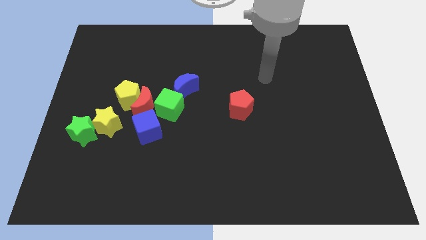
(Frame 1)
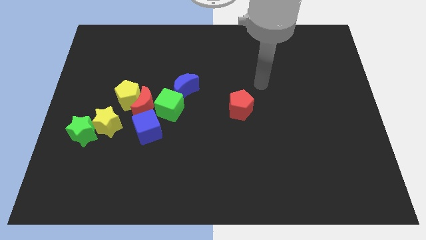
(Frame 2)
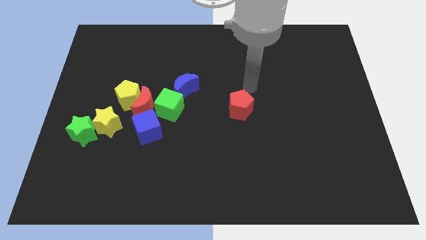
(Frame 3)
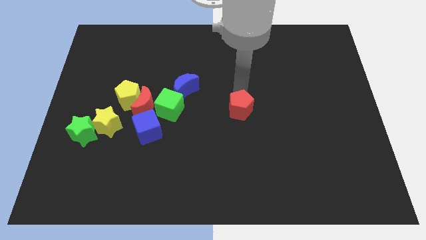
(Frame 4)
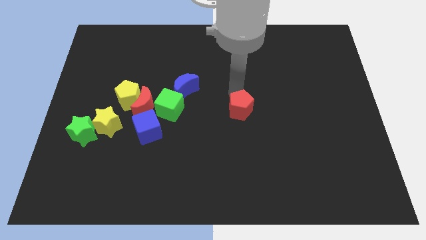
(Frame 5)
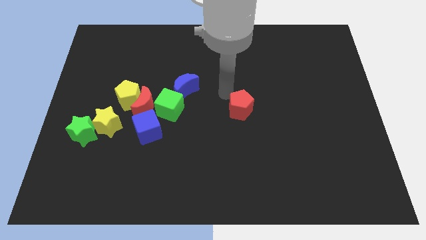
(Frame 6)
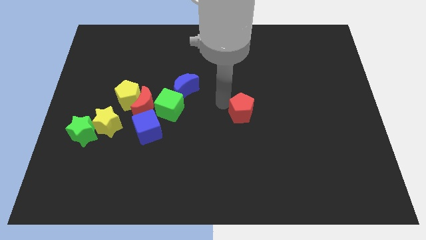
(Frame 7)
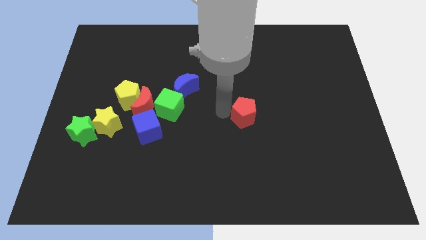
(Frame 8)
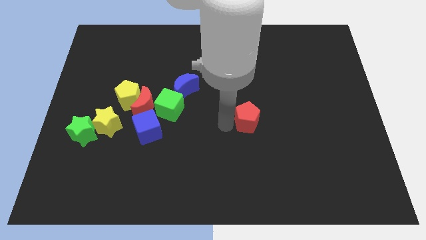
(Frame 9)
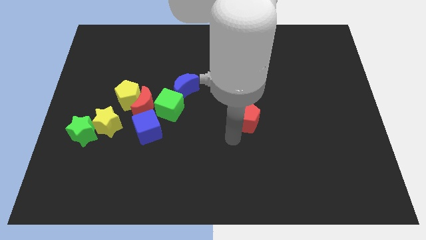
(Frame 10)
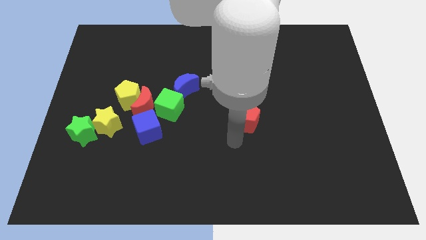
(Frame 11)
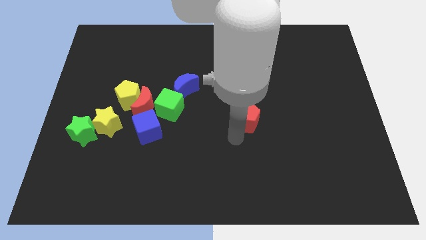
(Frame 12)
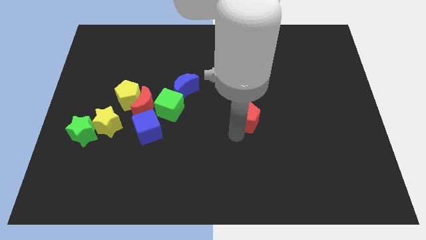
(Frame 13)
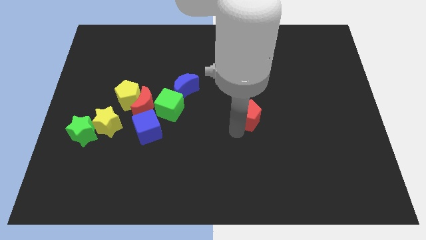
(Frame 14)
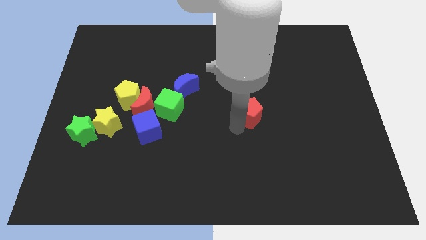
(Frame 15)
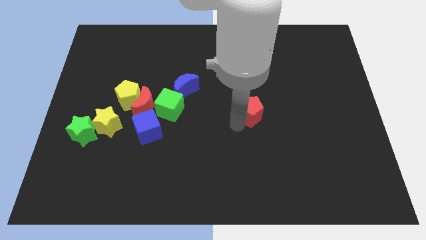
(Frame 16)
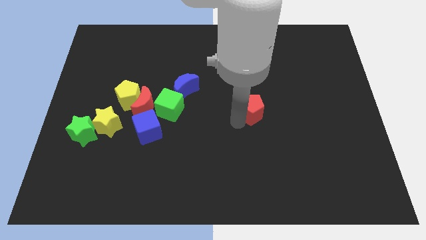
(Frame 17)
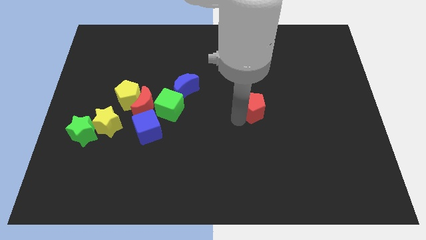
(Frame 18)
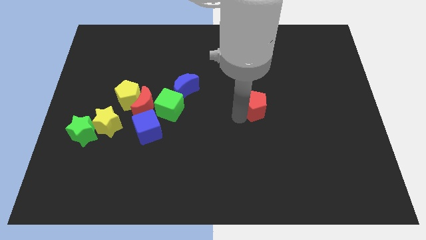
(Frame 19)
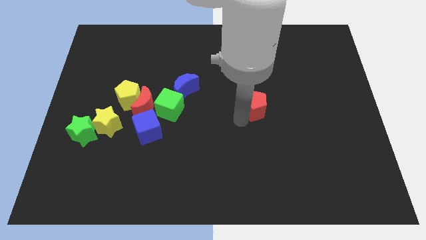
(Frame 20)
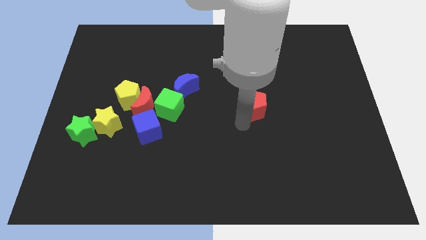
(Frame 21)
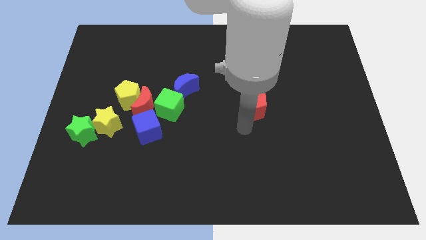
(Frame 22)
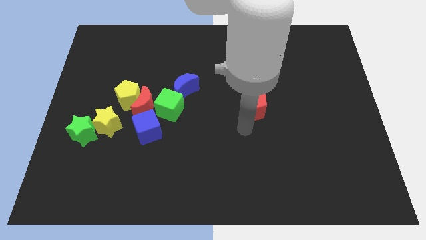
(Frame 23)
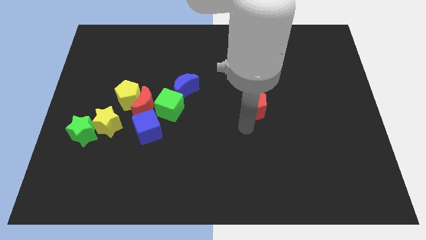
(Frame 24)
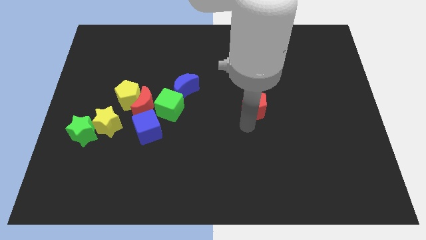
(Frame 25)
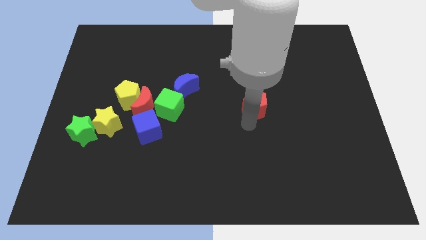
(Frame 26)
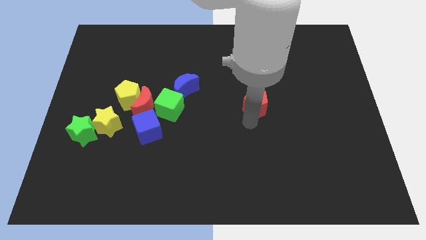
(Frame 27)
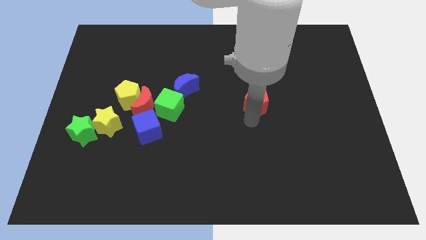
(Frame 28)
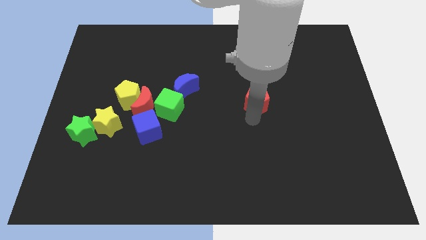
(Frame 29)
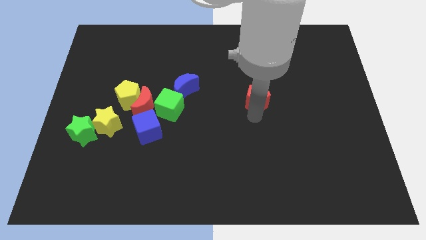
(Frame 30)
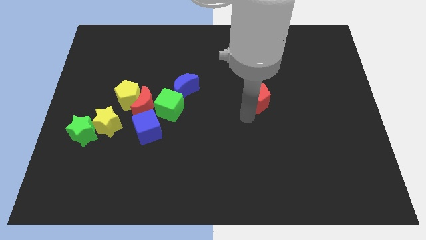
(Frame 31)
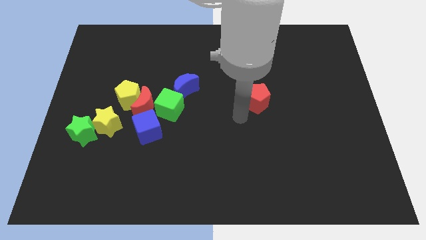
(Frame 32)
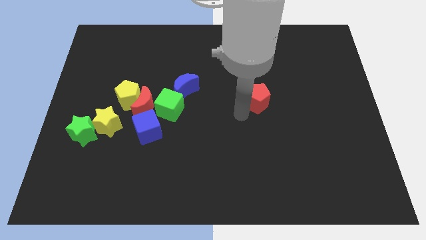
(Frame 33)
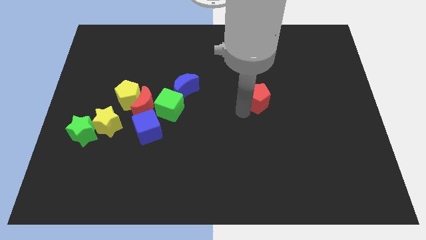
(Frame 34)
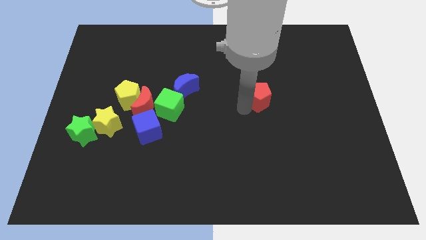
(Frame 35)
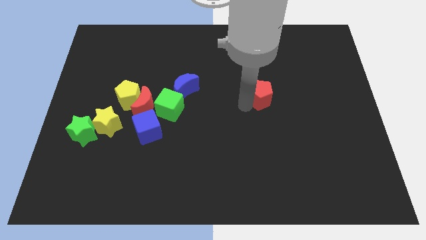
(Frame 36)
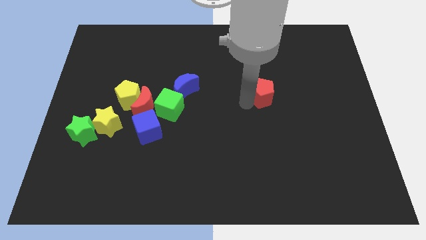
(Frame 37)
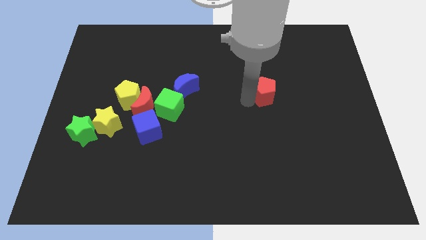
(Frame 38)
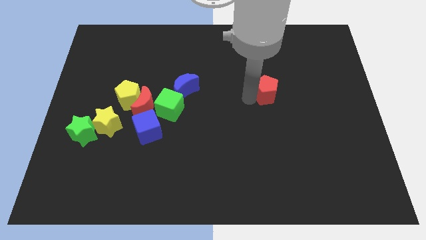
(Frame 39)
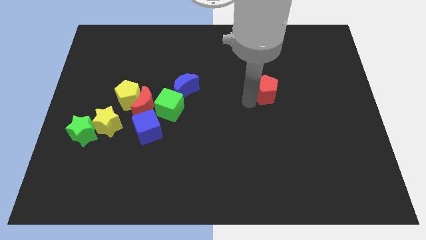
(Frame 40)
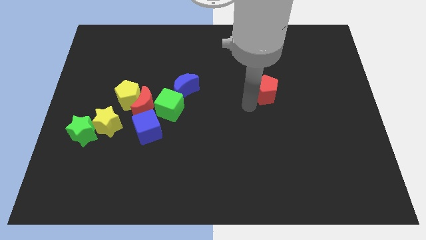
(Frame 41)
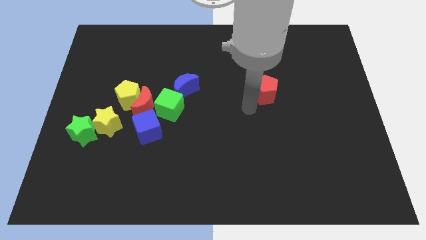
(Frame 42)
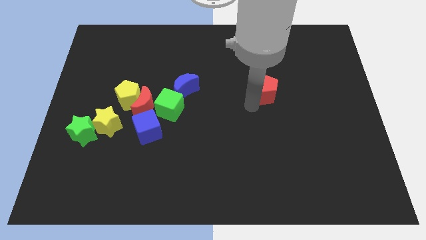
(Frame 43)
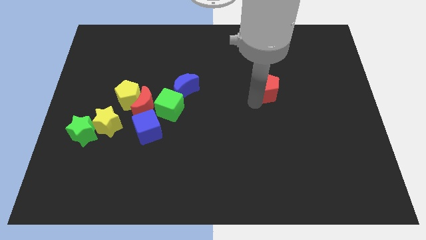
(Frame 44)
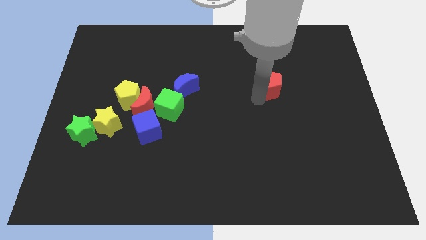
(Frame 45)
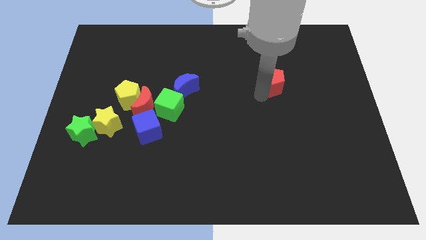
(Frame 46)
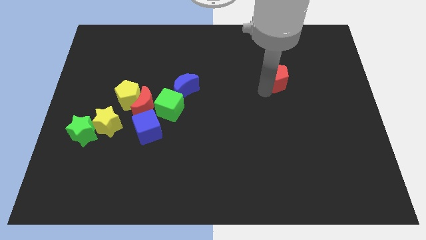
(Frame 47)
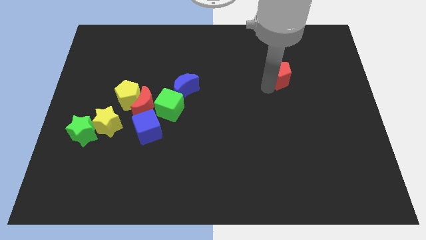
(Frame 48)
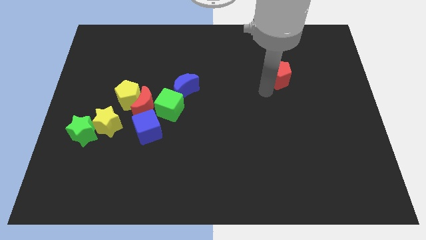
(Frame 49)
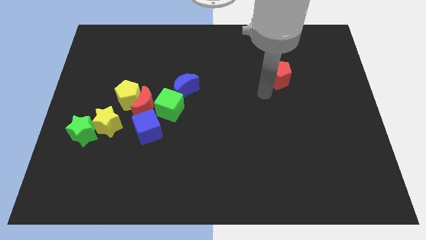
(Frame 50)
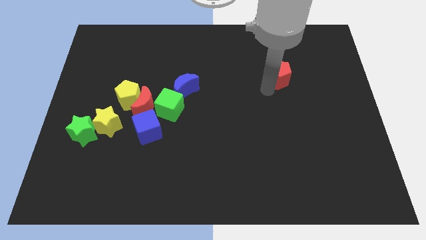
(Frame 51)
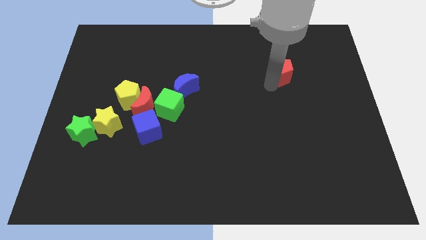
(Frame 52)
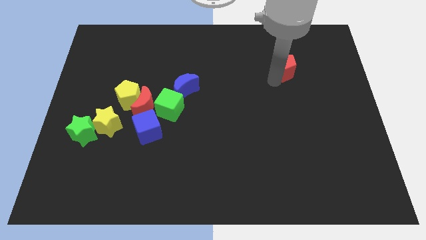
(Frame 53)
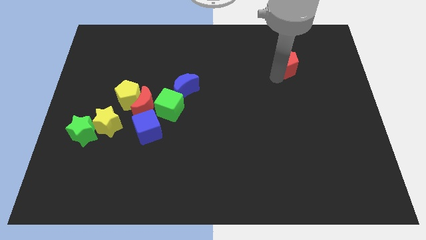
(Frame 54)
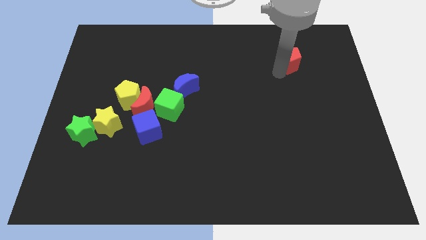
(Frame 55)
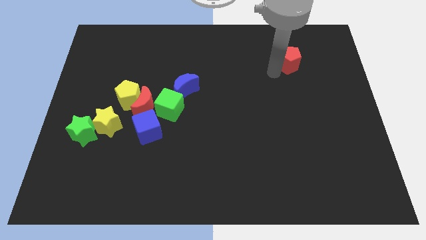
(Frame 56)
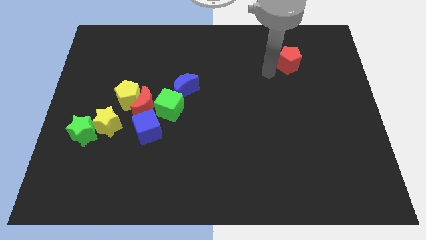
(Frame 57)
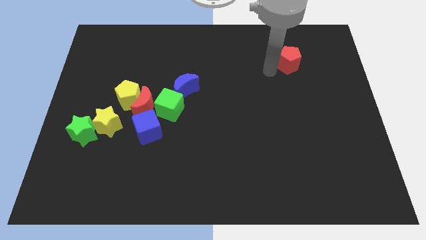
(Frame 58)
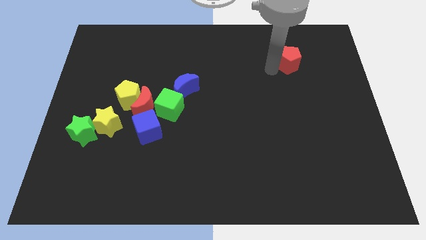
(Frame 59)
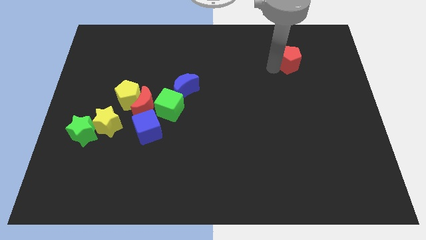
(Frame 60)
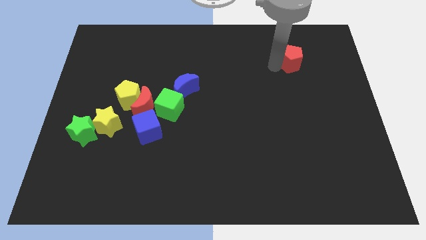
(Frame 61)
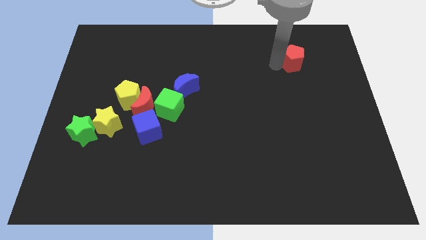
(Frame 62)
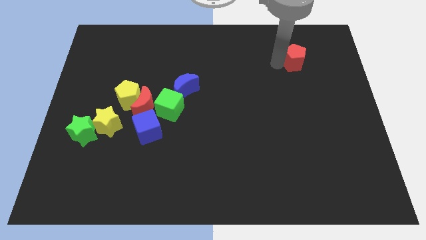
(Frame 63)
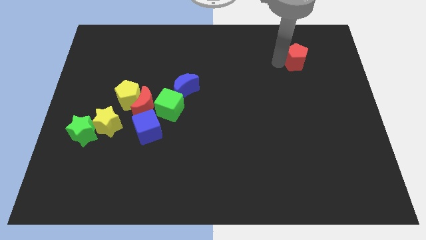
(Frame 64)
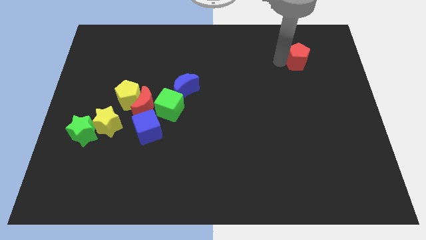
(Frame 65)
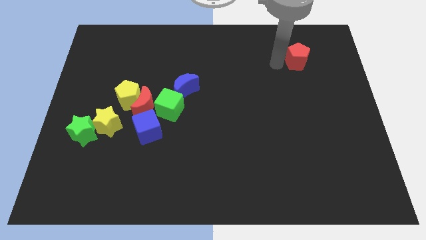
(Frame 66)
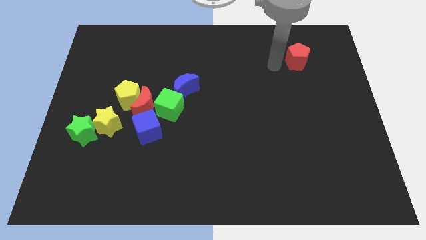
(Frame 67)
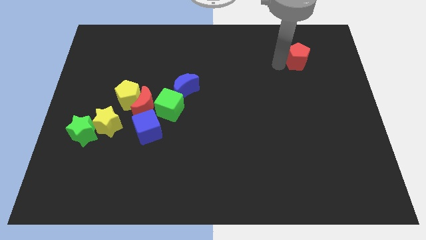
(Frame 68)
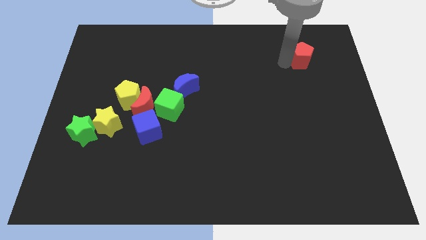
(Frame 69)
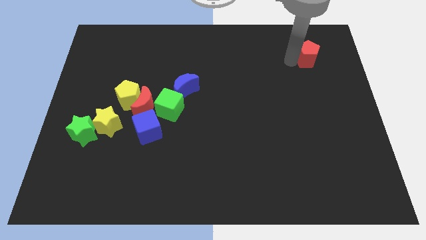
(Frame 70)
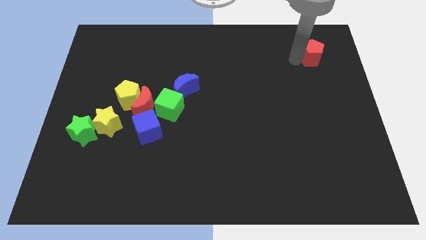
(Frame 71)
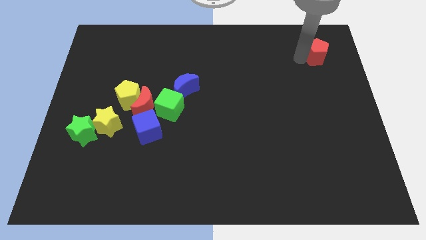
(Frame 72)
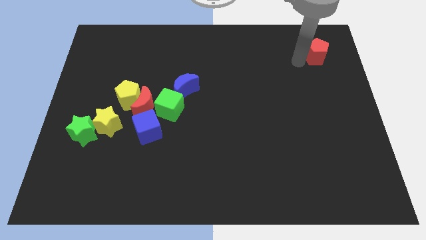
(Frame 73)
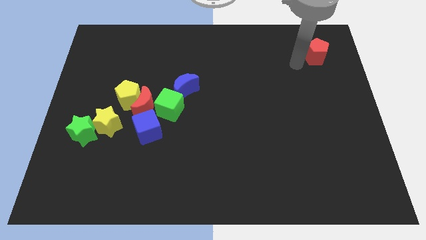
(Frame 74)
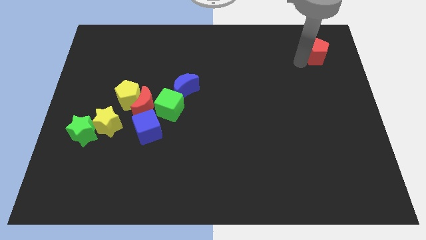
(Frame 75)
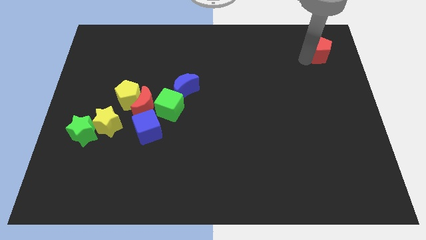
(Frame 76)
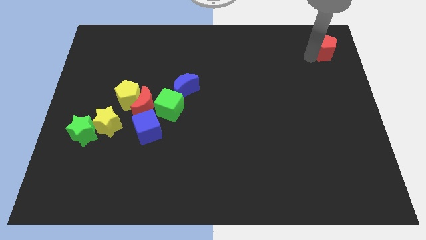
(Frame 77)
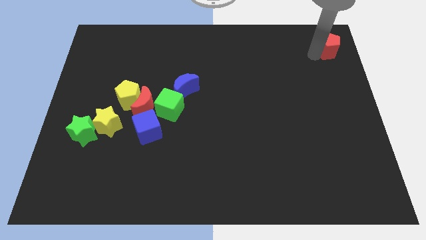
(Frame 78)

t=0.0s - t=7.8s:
move the red pentagon to the top right corner
